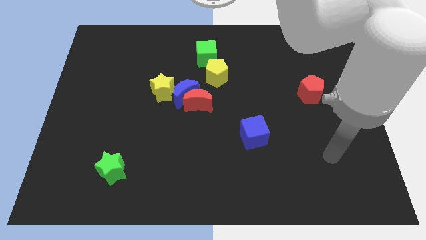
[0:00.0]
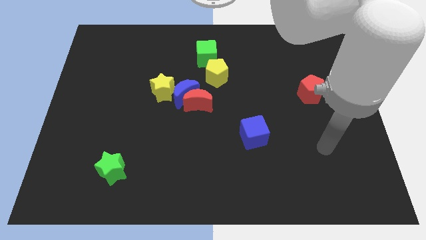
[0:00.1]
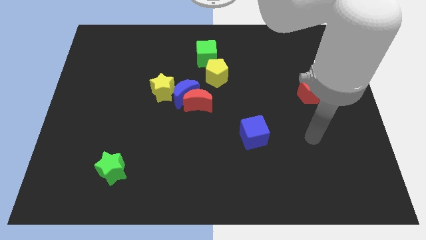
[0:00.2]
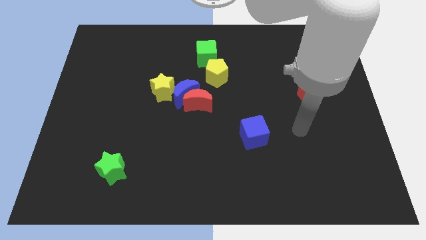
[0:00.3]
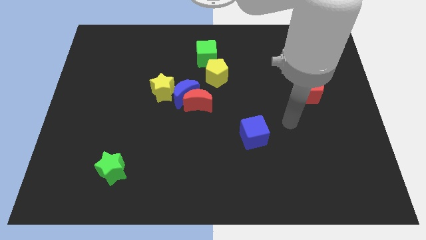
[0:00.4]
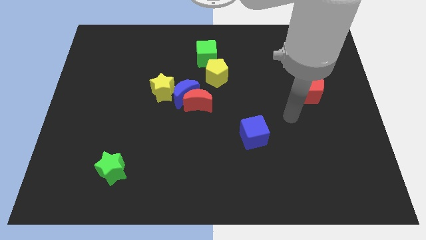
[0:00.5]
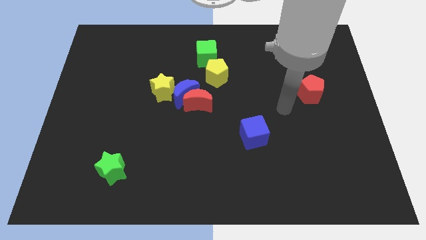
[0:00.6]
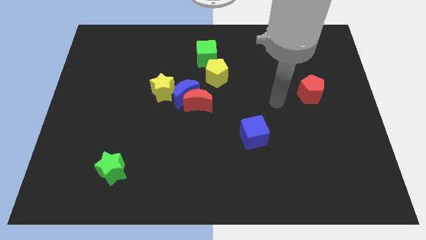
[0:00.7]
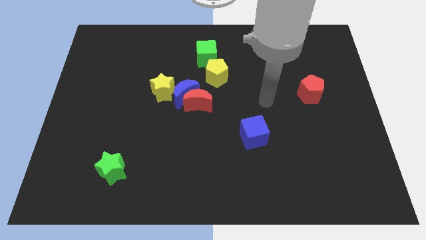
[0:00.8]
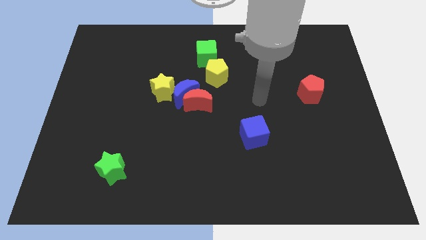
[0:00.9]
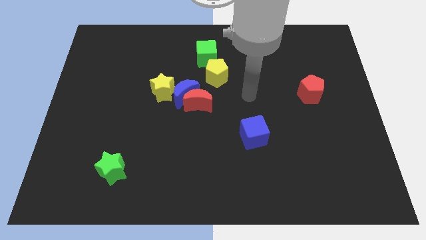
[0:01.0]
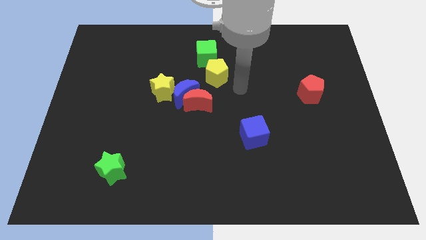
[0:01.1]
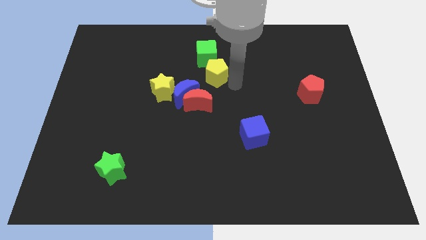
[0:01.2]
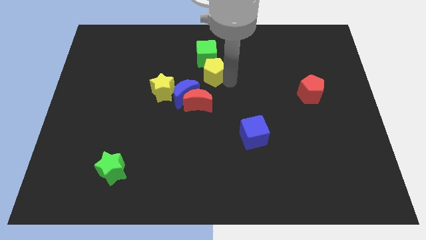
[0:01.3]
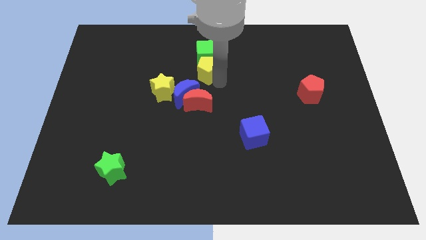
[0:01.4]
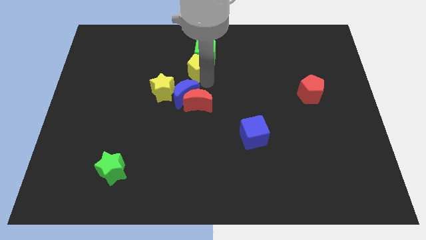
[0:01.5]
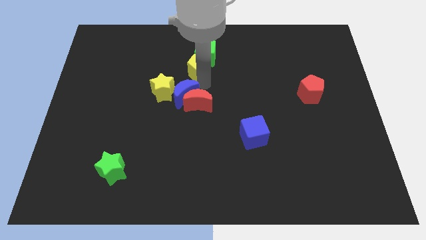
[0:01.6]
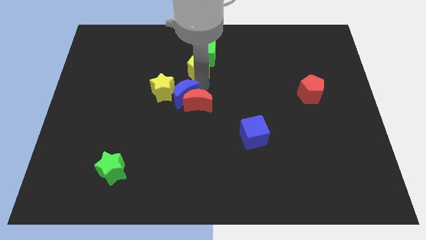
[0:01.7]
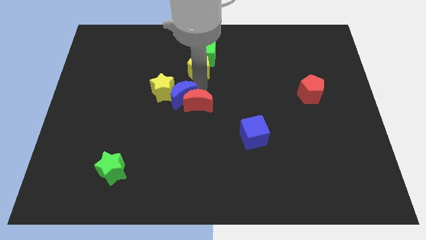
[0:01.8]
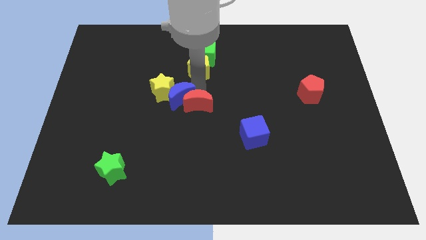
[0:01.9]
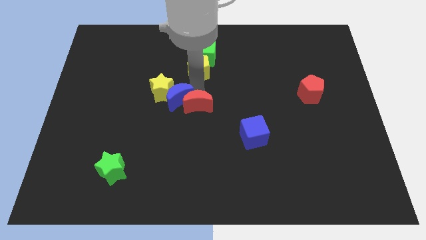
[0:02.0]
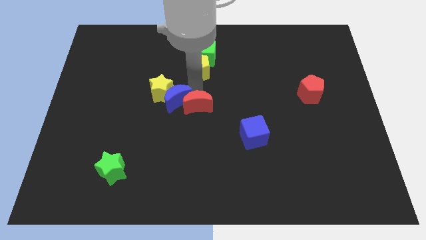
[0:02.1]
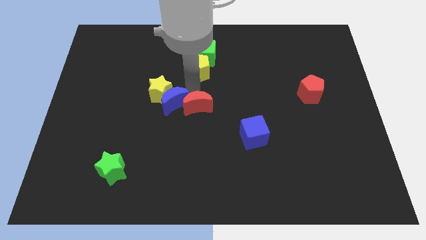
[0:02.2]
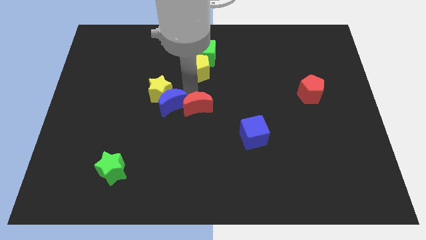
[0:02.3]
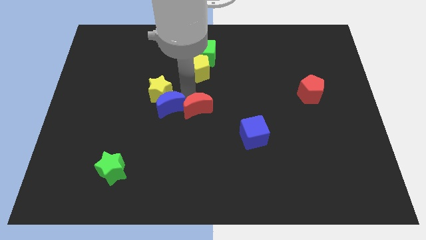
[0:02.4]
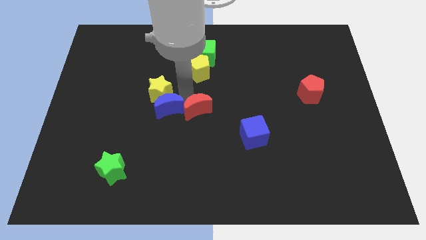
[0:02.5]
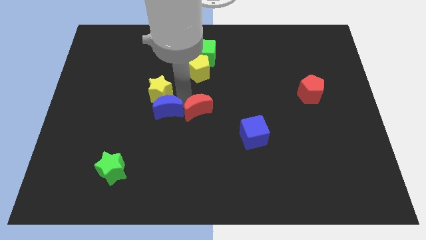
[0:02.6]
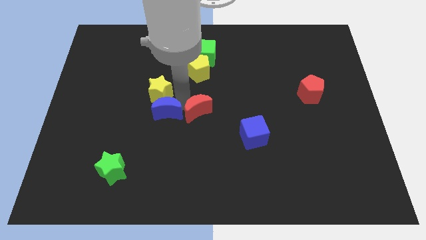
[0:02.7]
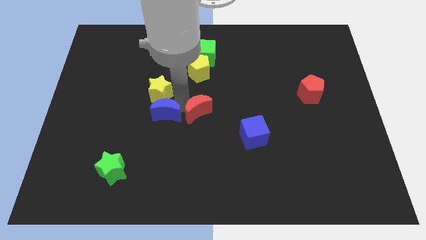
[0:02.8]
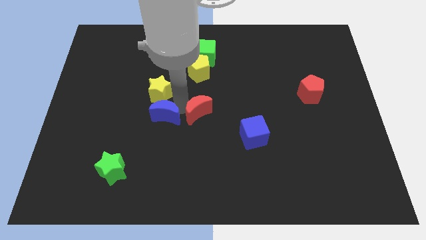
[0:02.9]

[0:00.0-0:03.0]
move the blue moon down and then to the left a bit

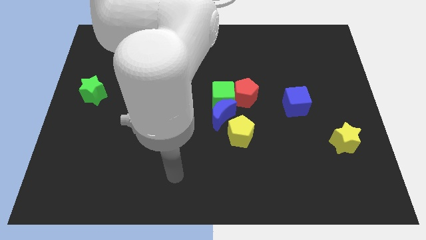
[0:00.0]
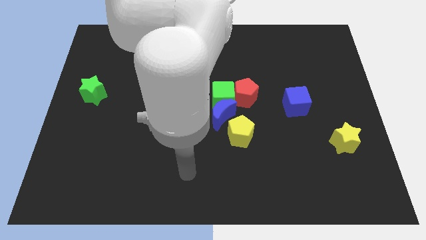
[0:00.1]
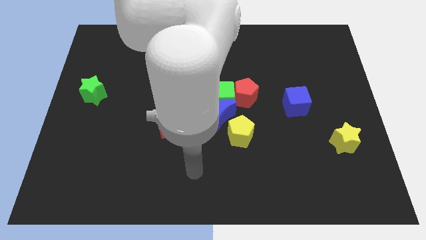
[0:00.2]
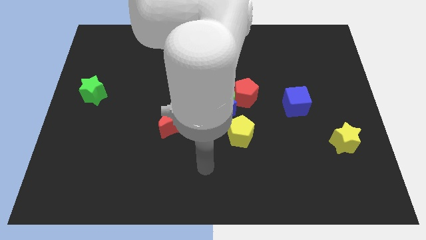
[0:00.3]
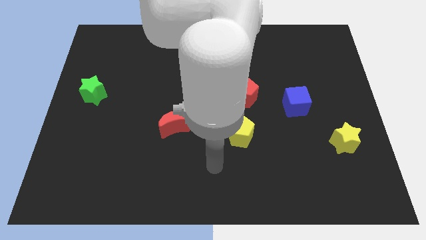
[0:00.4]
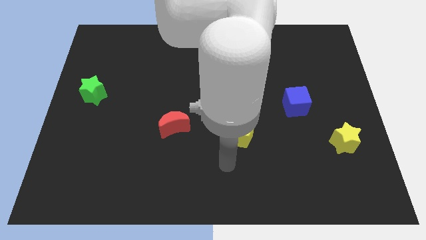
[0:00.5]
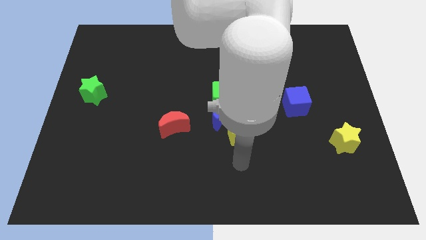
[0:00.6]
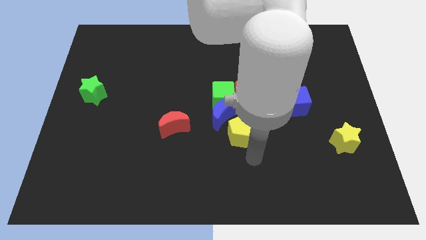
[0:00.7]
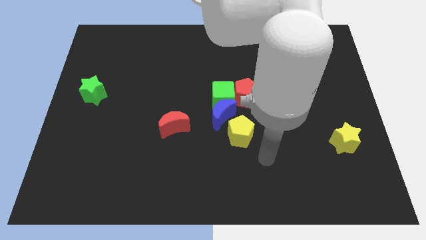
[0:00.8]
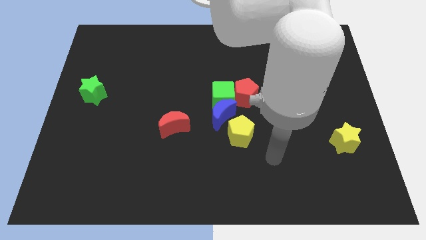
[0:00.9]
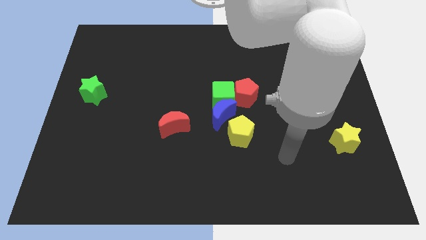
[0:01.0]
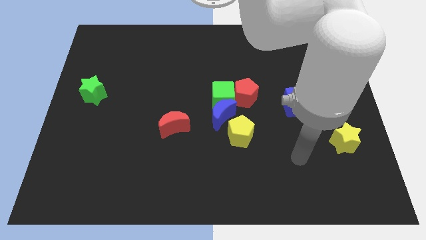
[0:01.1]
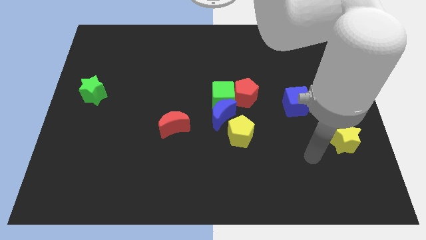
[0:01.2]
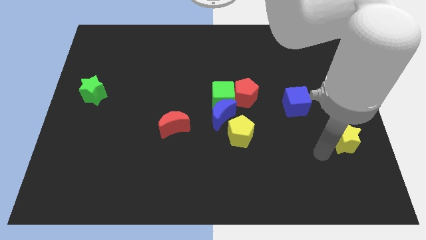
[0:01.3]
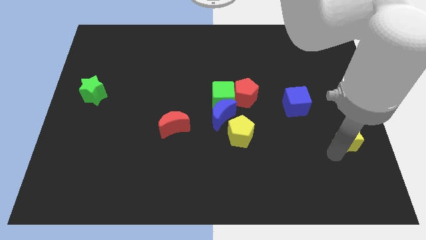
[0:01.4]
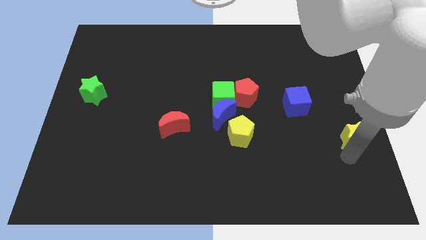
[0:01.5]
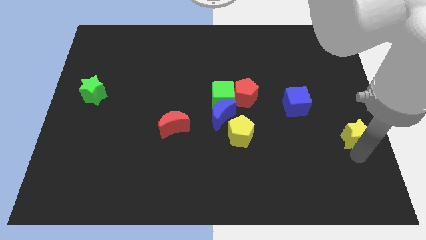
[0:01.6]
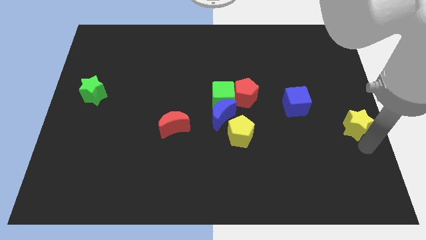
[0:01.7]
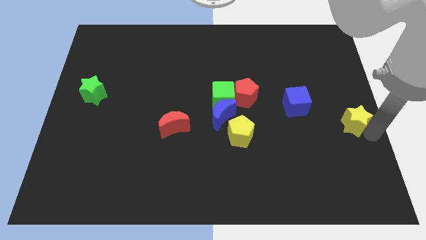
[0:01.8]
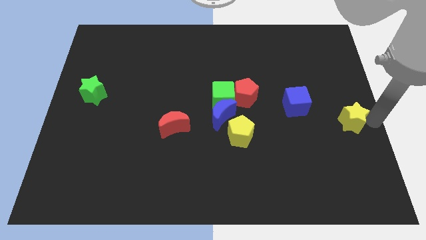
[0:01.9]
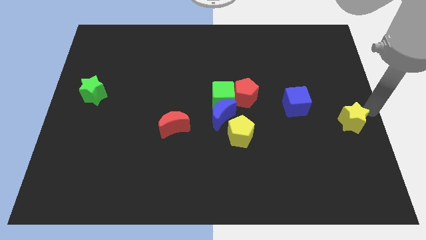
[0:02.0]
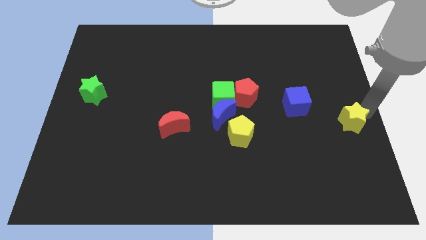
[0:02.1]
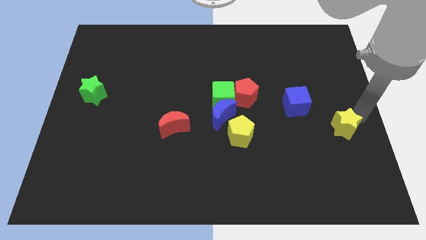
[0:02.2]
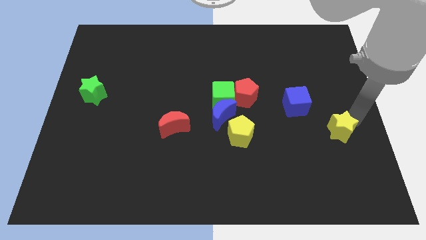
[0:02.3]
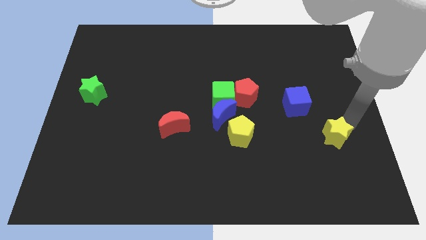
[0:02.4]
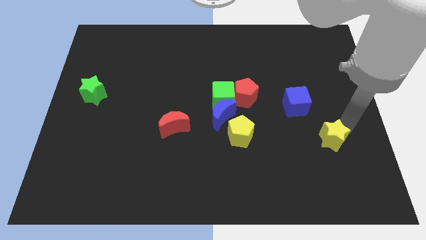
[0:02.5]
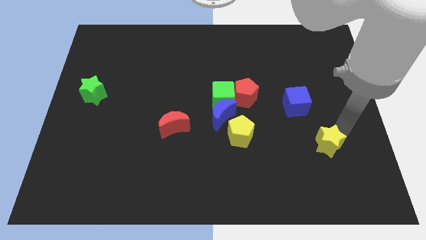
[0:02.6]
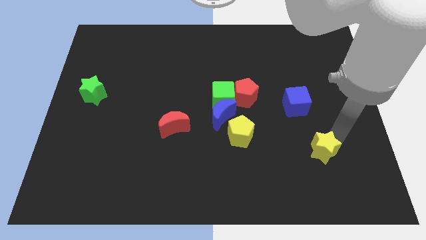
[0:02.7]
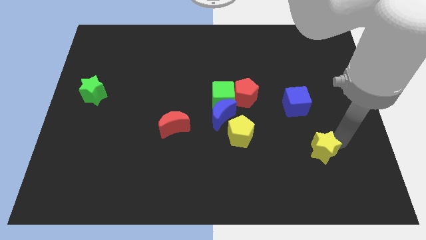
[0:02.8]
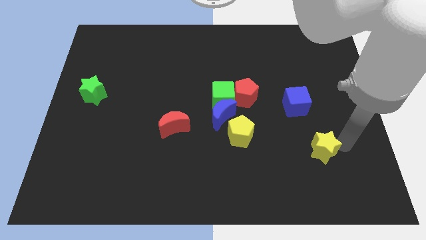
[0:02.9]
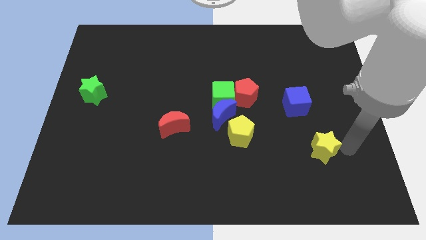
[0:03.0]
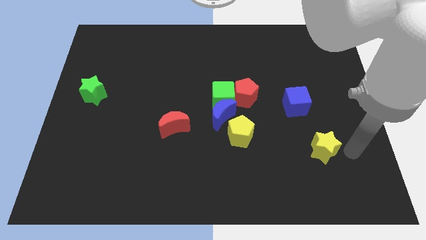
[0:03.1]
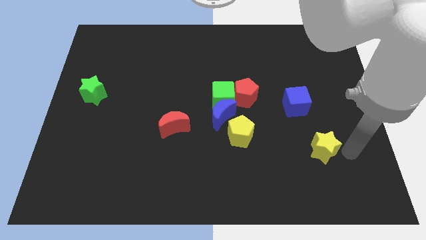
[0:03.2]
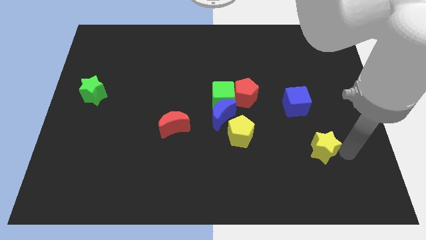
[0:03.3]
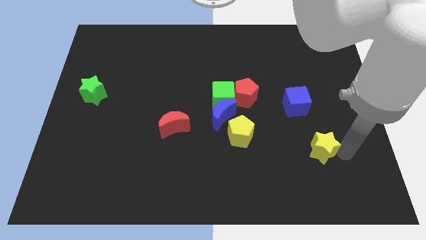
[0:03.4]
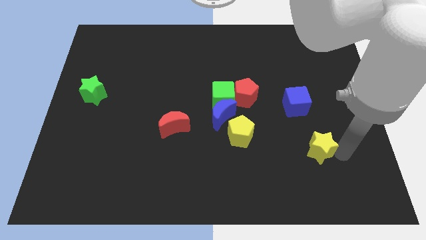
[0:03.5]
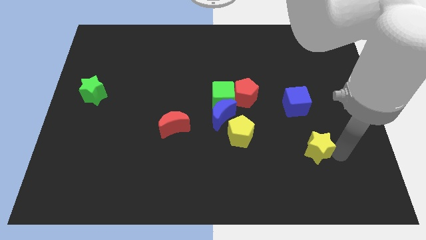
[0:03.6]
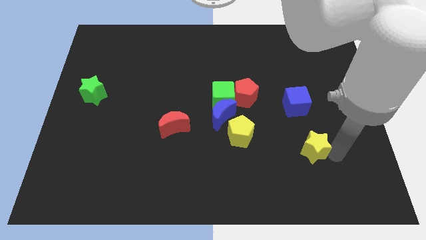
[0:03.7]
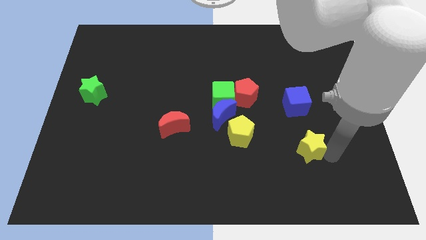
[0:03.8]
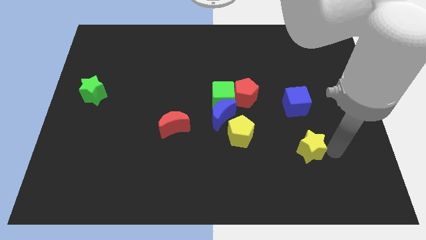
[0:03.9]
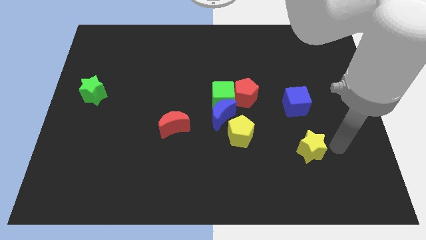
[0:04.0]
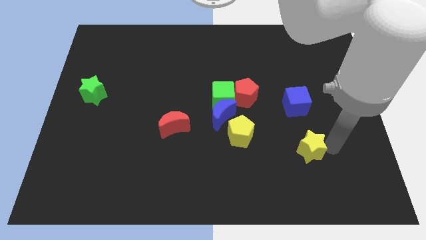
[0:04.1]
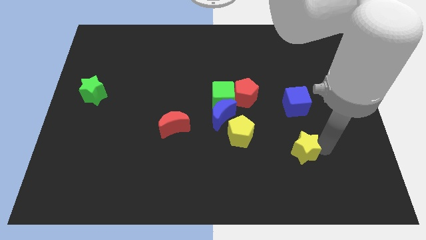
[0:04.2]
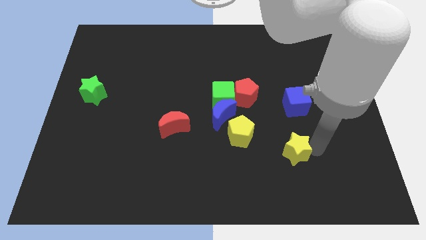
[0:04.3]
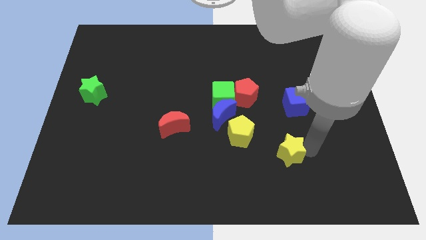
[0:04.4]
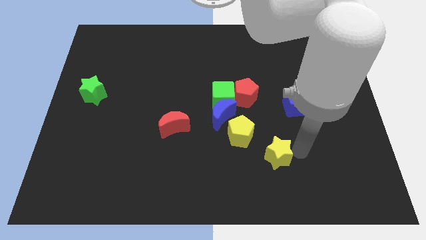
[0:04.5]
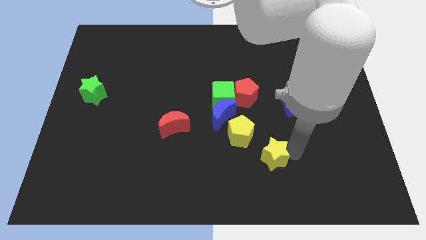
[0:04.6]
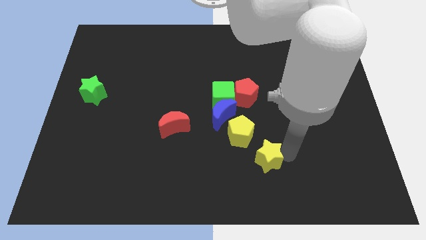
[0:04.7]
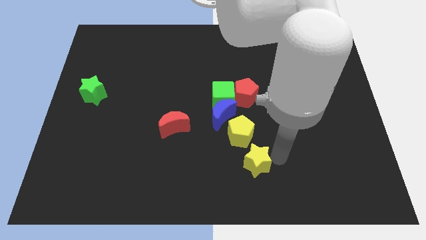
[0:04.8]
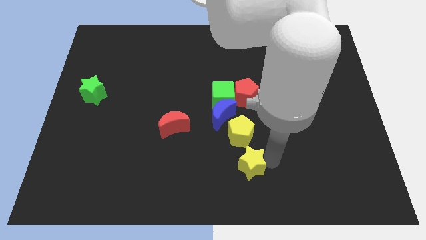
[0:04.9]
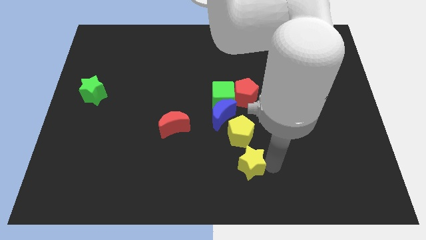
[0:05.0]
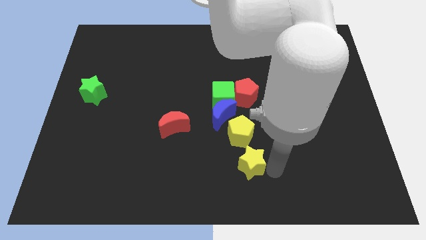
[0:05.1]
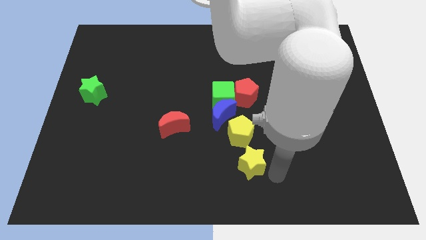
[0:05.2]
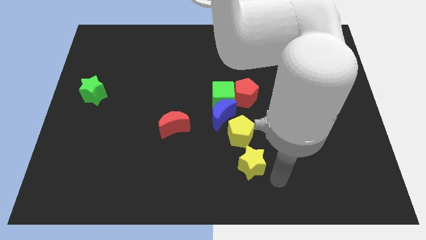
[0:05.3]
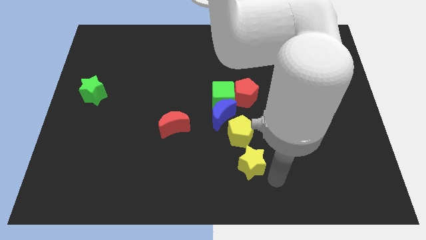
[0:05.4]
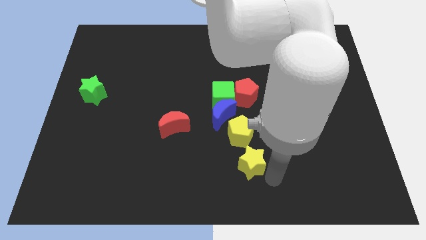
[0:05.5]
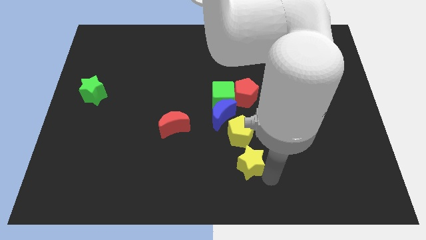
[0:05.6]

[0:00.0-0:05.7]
slide the yellow star to the left
